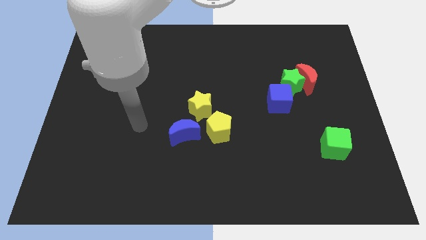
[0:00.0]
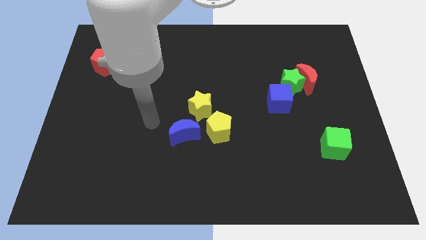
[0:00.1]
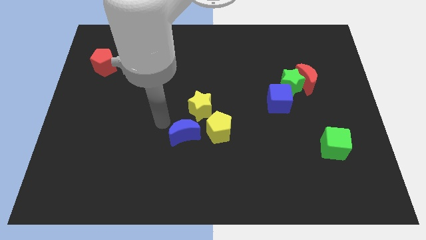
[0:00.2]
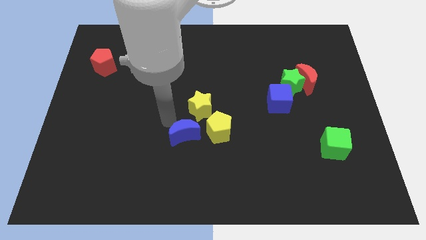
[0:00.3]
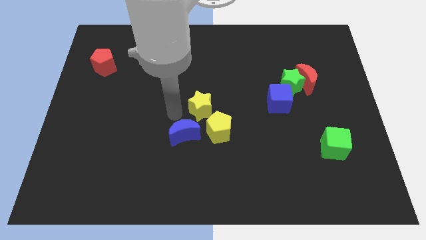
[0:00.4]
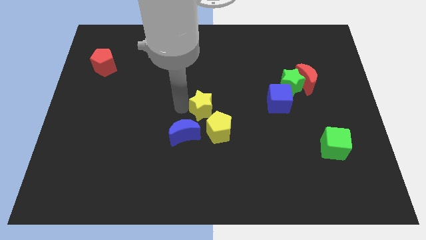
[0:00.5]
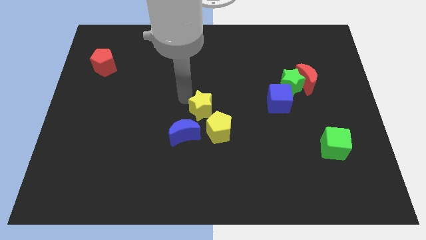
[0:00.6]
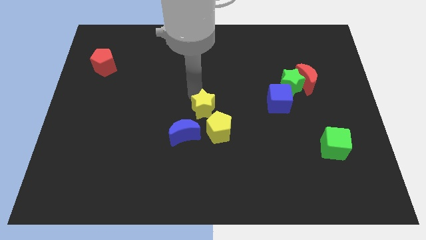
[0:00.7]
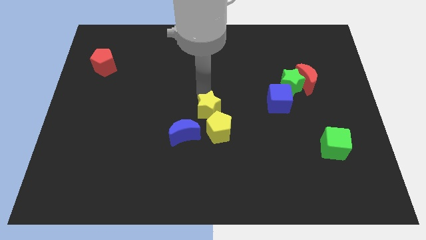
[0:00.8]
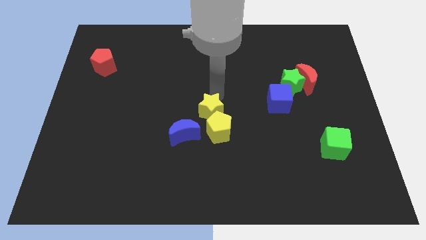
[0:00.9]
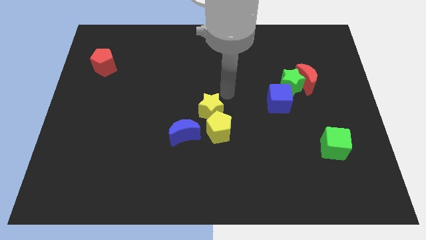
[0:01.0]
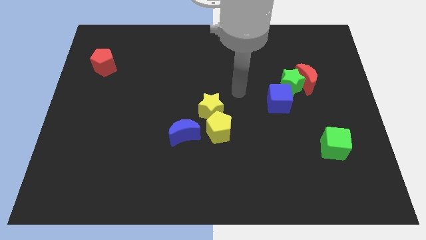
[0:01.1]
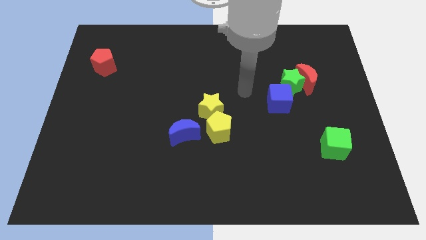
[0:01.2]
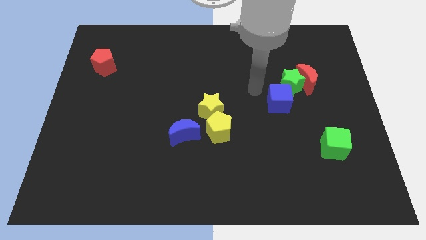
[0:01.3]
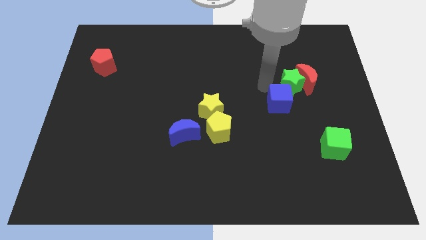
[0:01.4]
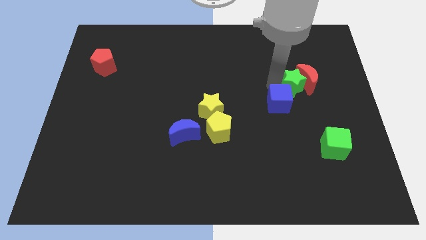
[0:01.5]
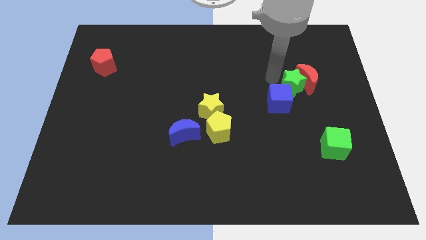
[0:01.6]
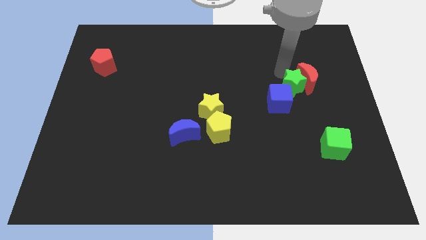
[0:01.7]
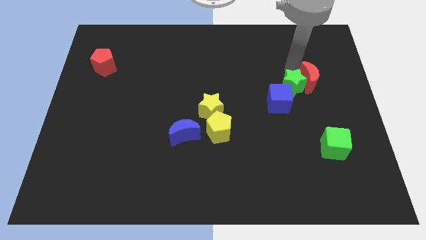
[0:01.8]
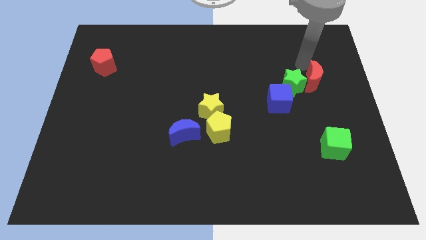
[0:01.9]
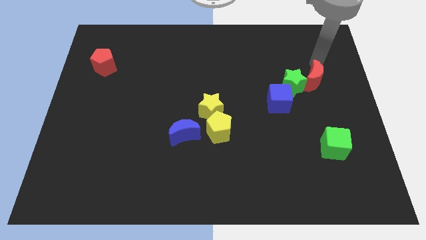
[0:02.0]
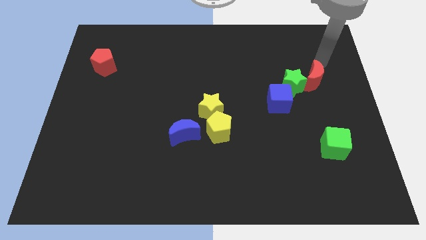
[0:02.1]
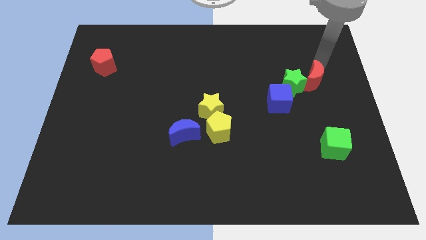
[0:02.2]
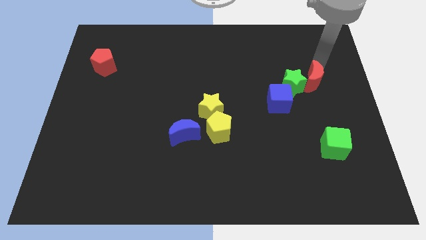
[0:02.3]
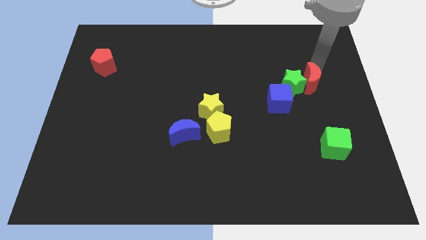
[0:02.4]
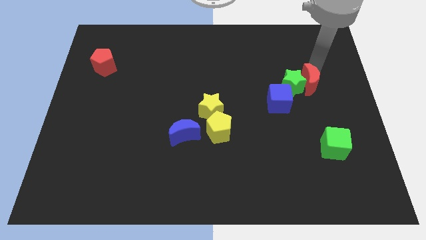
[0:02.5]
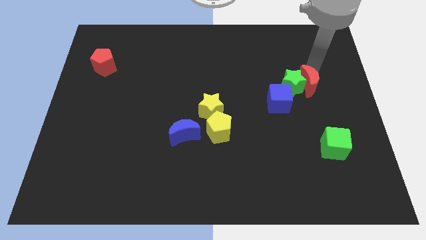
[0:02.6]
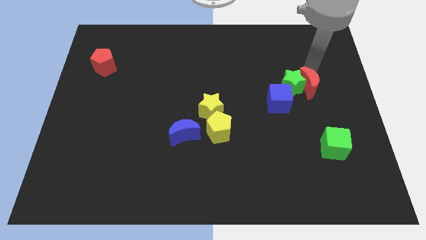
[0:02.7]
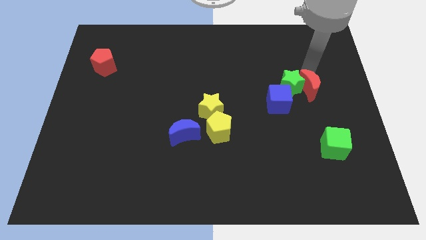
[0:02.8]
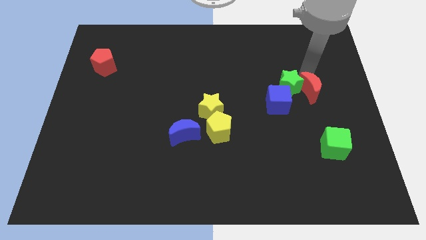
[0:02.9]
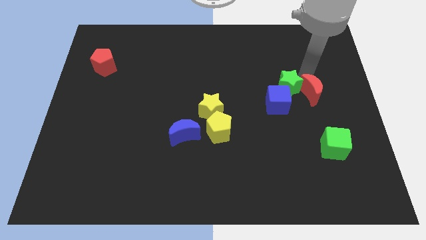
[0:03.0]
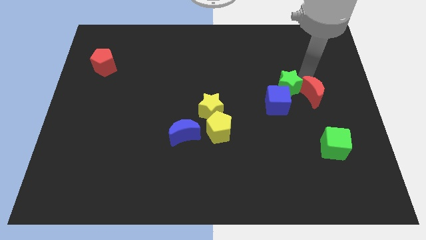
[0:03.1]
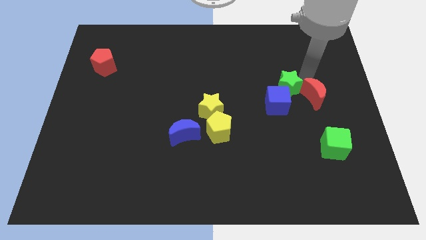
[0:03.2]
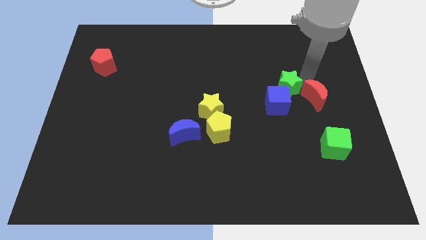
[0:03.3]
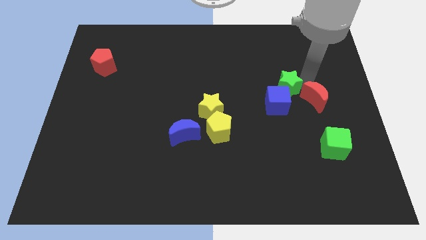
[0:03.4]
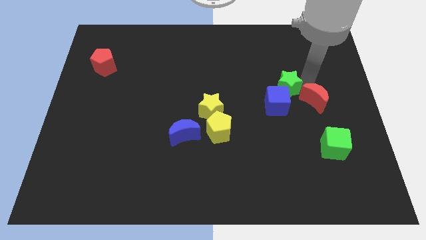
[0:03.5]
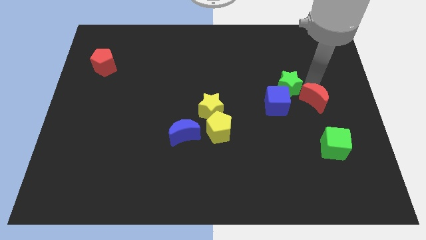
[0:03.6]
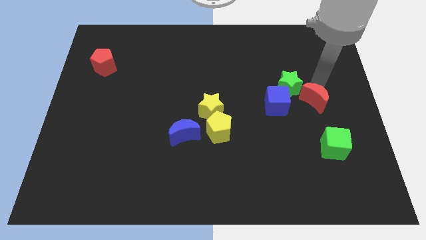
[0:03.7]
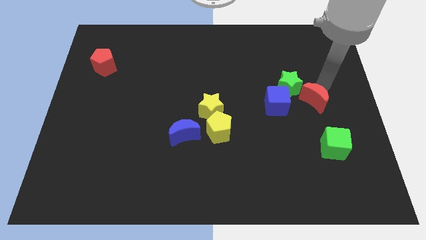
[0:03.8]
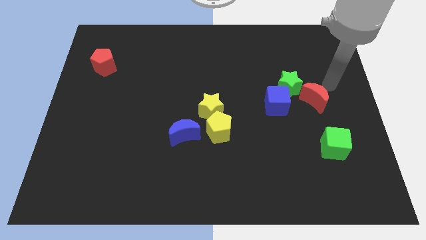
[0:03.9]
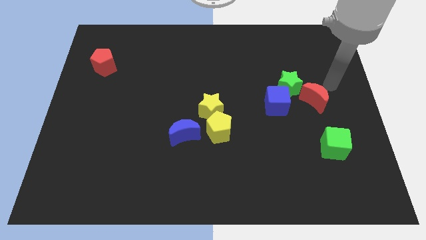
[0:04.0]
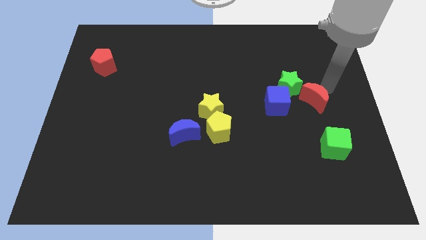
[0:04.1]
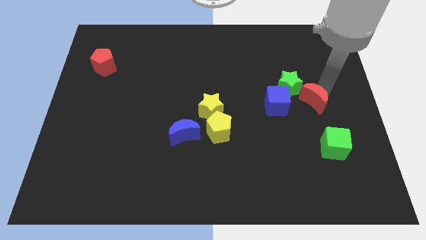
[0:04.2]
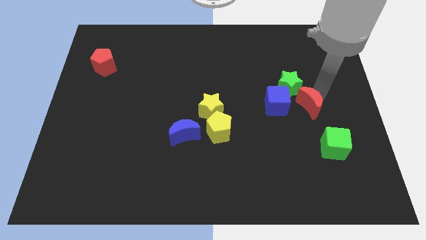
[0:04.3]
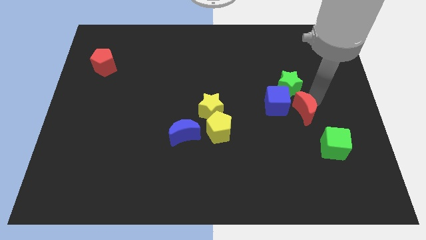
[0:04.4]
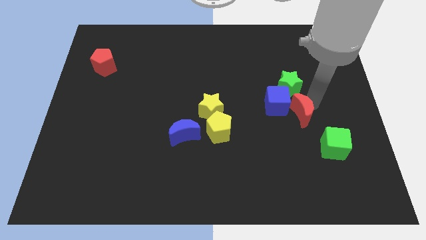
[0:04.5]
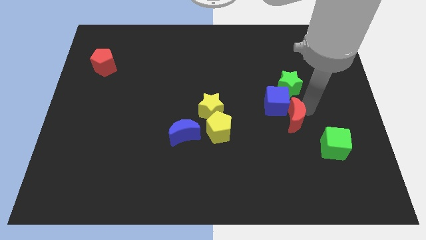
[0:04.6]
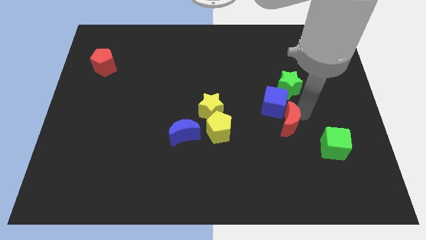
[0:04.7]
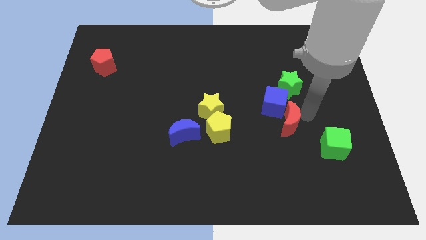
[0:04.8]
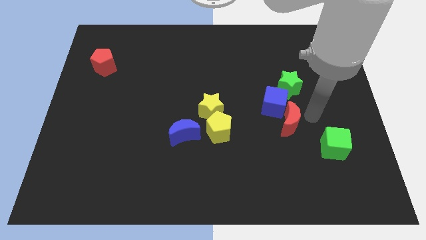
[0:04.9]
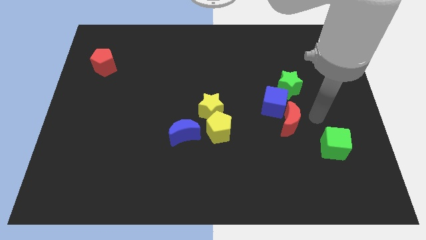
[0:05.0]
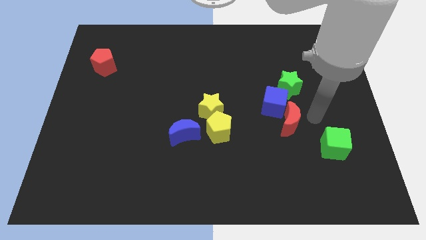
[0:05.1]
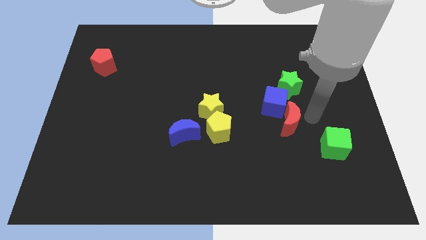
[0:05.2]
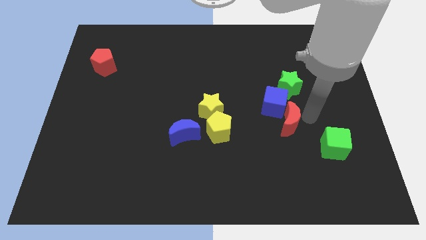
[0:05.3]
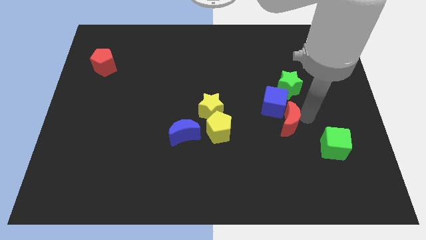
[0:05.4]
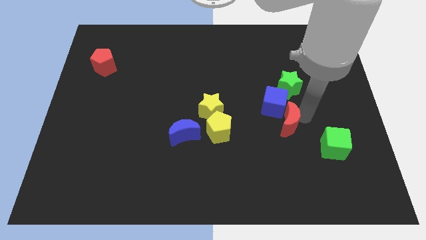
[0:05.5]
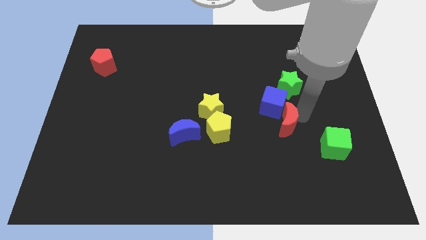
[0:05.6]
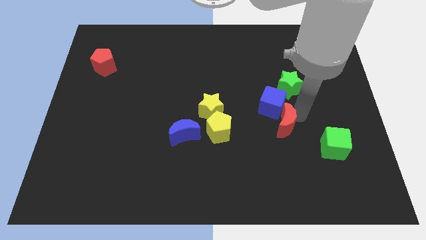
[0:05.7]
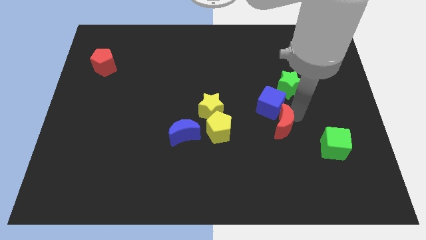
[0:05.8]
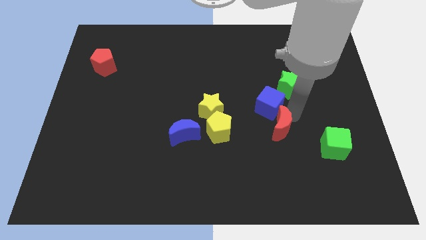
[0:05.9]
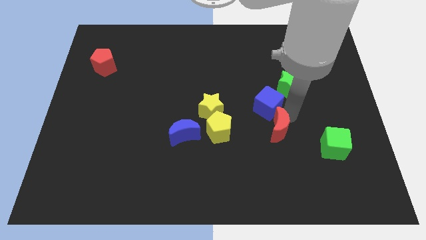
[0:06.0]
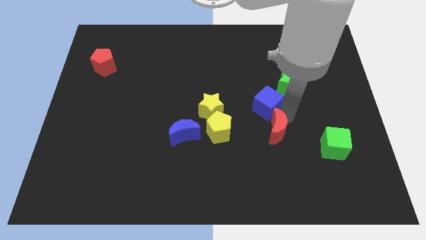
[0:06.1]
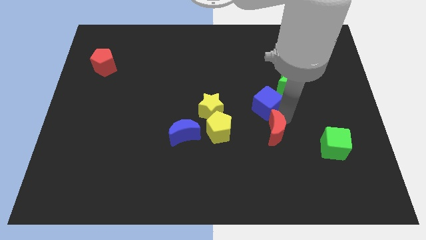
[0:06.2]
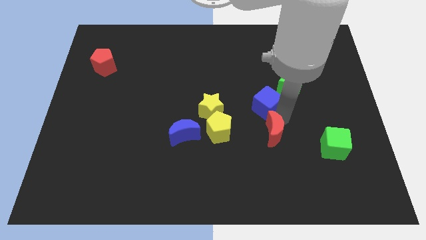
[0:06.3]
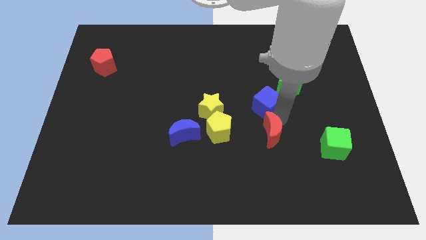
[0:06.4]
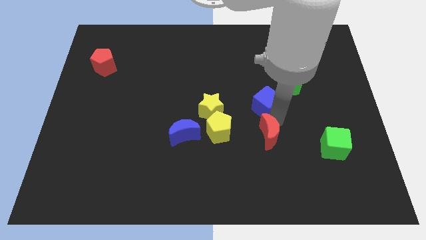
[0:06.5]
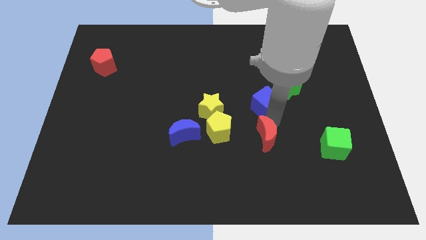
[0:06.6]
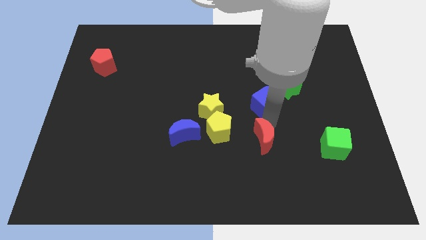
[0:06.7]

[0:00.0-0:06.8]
push the red moon down and then to the left

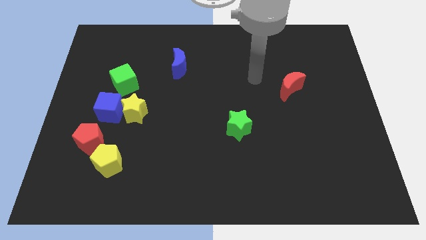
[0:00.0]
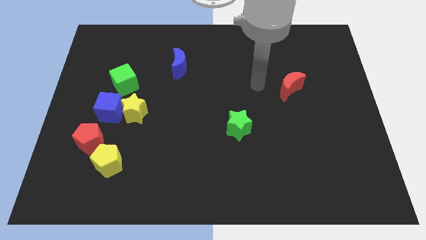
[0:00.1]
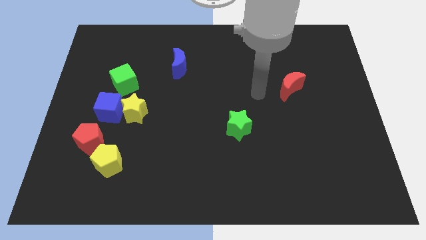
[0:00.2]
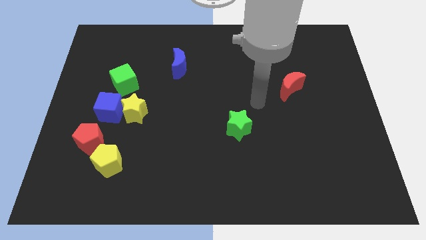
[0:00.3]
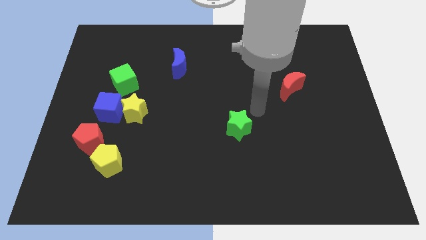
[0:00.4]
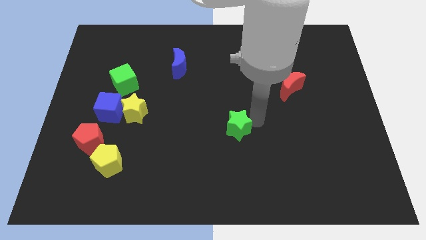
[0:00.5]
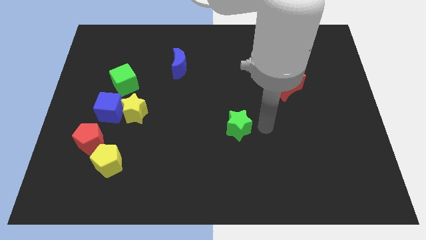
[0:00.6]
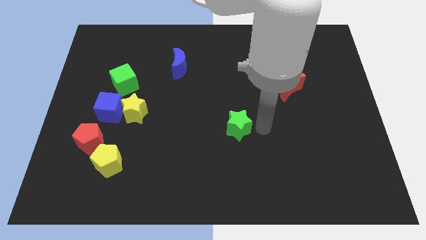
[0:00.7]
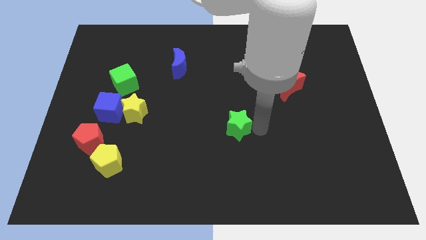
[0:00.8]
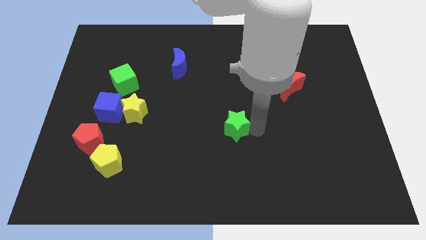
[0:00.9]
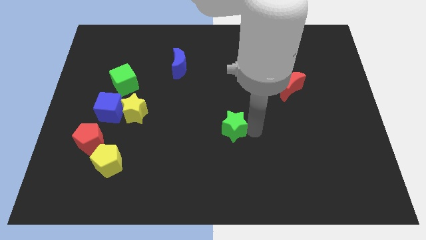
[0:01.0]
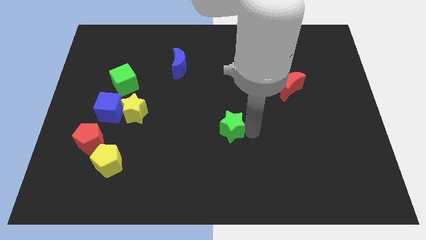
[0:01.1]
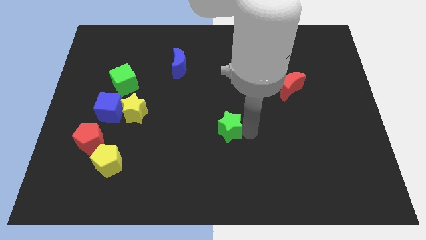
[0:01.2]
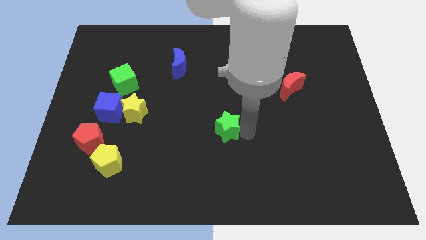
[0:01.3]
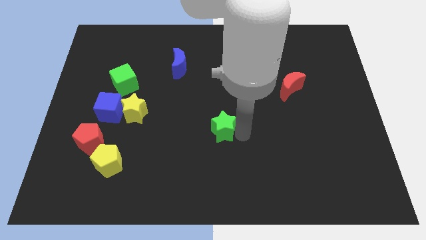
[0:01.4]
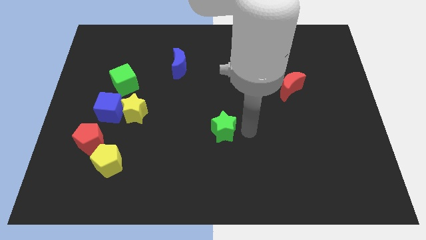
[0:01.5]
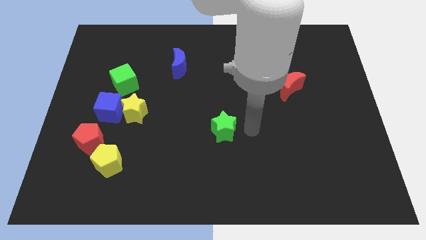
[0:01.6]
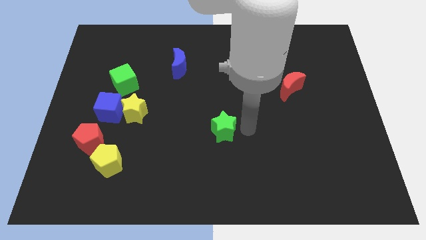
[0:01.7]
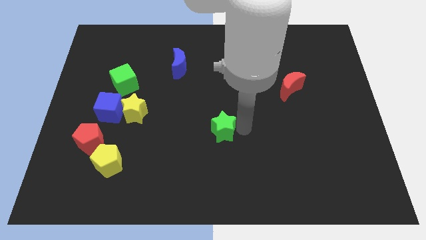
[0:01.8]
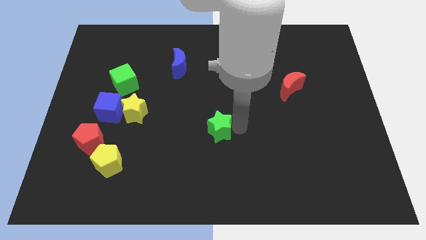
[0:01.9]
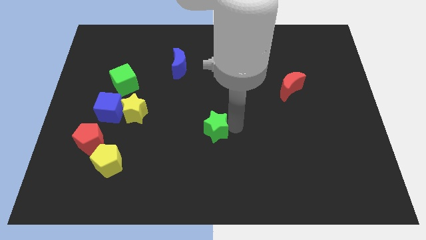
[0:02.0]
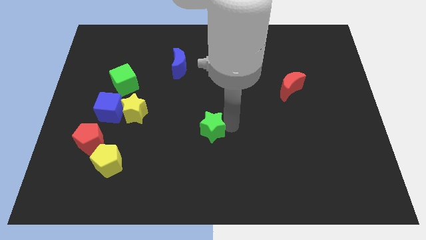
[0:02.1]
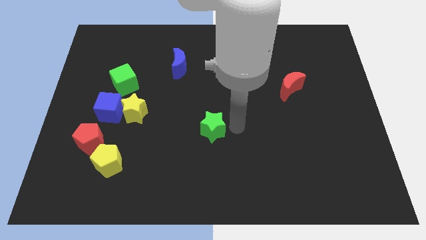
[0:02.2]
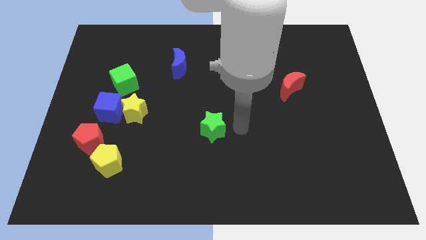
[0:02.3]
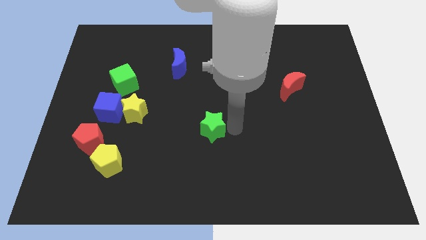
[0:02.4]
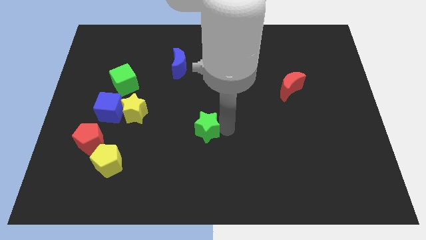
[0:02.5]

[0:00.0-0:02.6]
move the green star to the left somewhat
